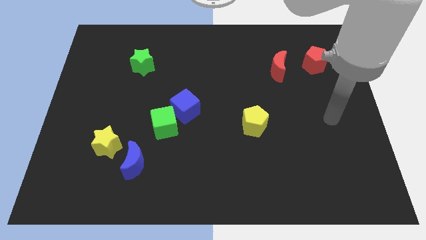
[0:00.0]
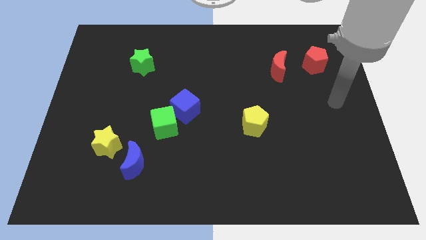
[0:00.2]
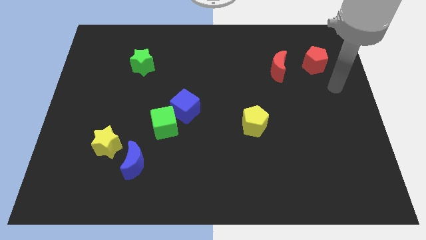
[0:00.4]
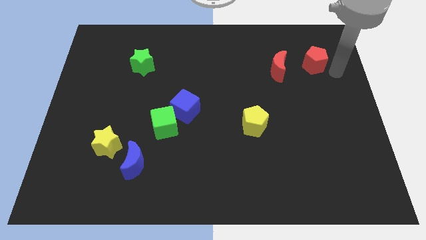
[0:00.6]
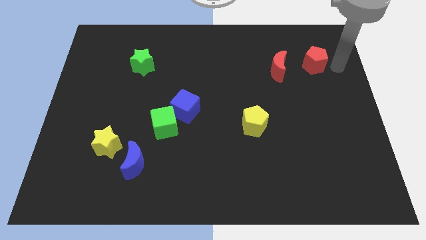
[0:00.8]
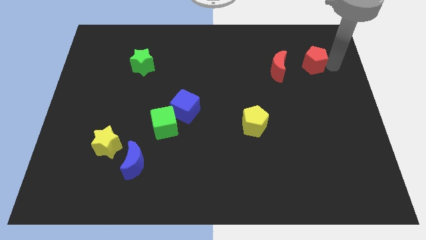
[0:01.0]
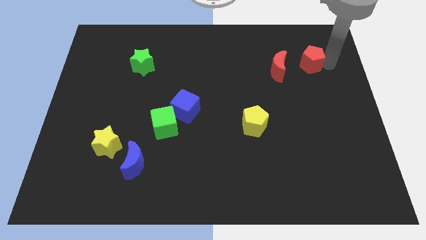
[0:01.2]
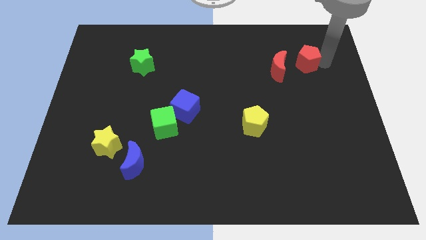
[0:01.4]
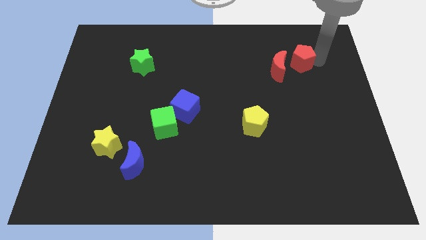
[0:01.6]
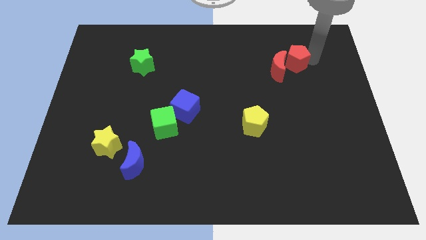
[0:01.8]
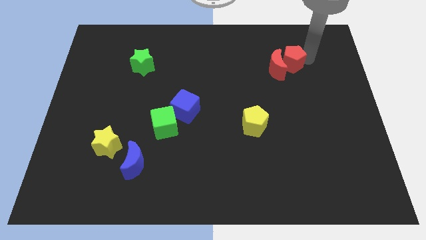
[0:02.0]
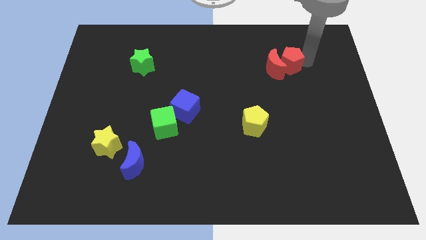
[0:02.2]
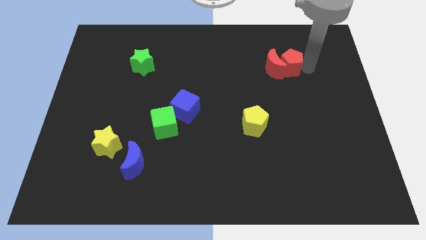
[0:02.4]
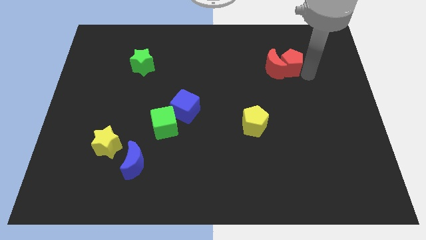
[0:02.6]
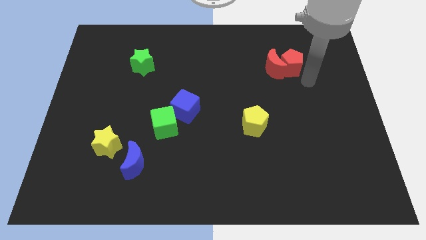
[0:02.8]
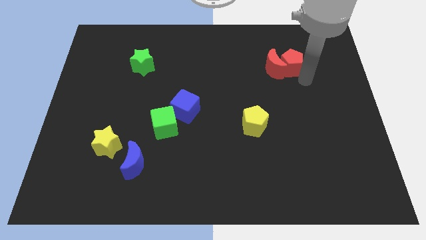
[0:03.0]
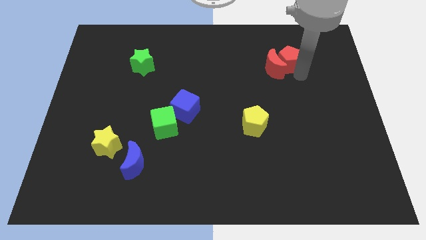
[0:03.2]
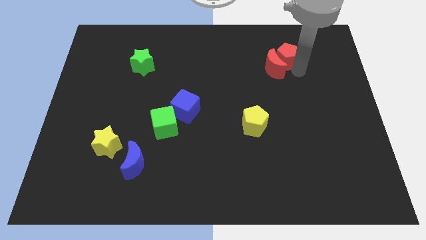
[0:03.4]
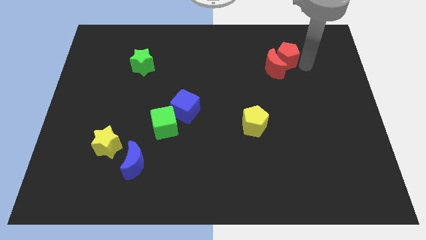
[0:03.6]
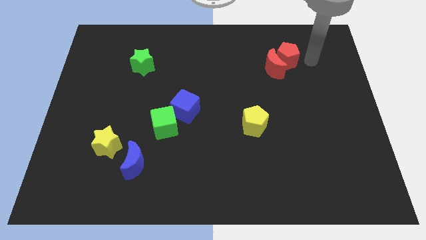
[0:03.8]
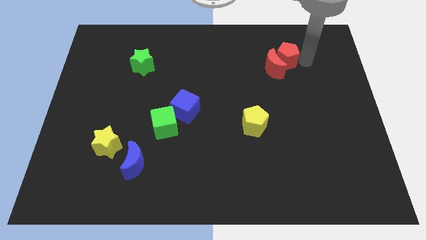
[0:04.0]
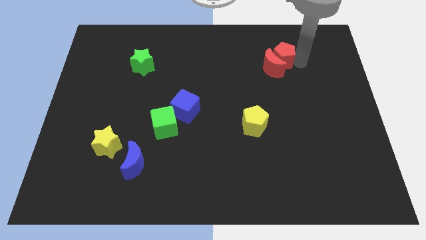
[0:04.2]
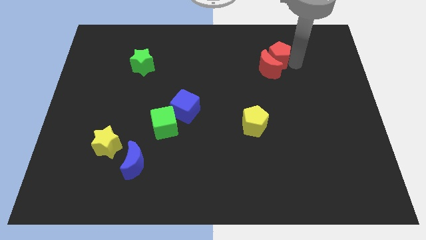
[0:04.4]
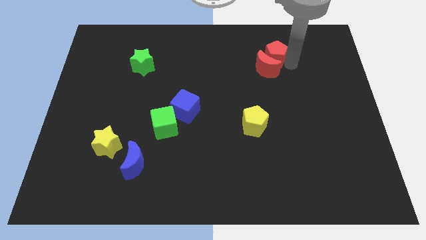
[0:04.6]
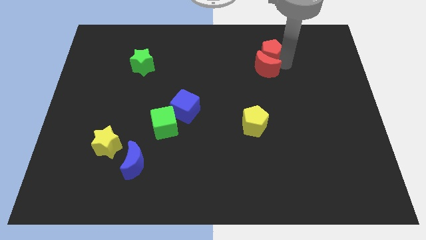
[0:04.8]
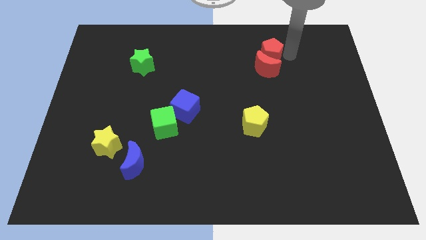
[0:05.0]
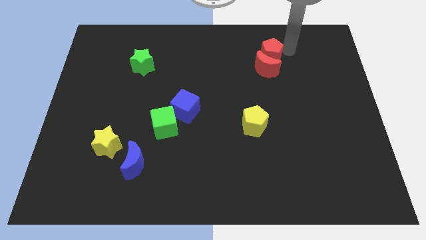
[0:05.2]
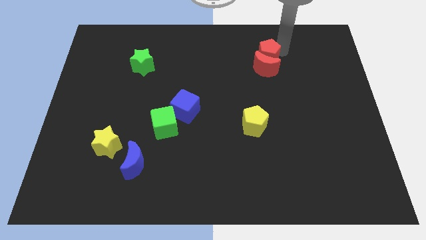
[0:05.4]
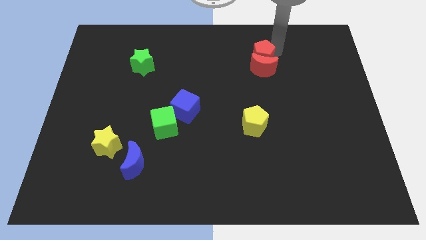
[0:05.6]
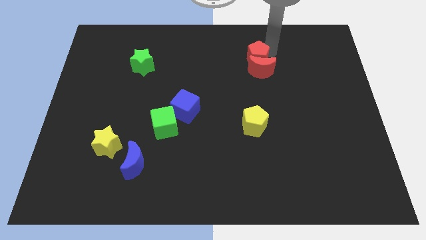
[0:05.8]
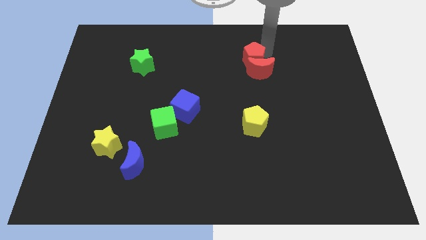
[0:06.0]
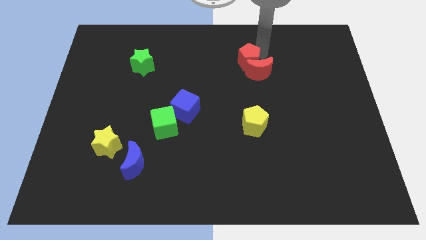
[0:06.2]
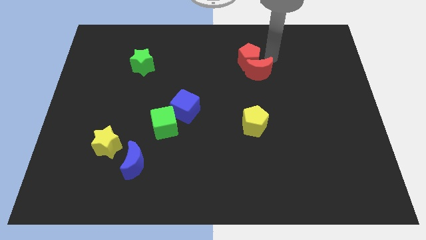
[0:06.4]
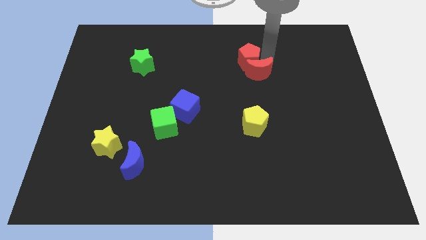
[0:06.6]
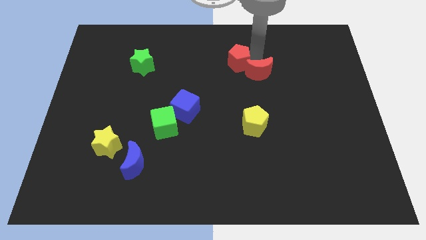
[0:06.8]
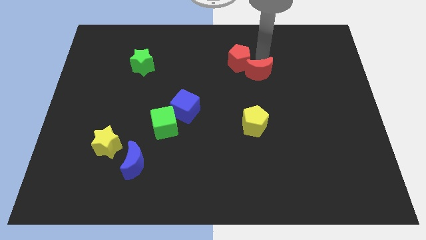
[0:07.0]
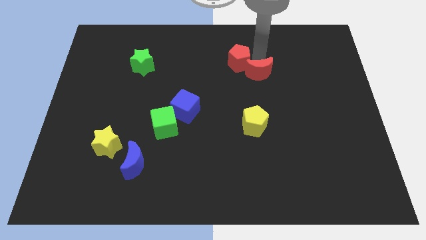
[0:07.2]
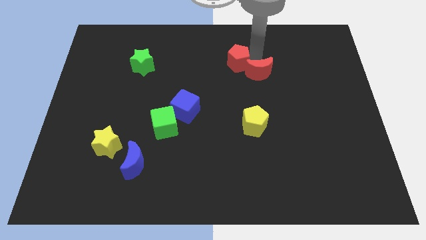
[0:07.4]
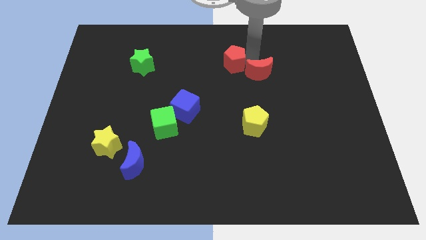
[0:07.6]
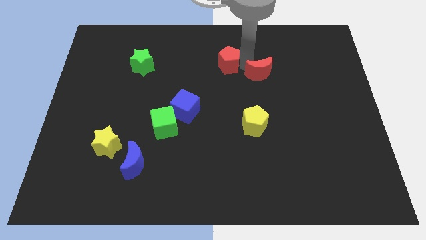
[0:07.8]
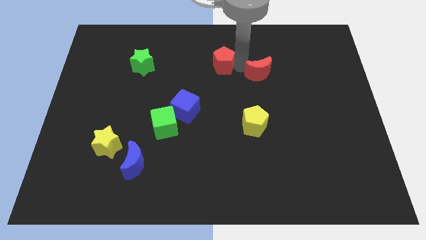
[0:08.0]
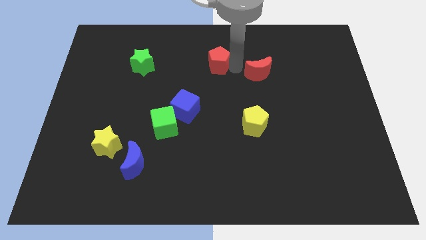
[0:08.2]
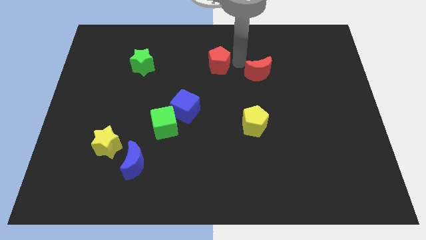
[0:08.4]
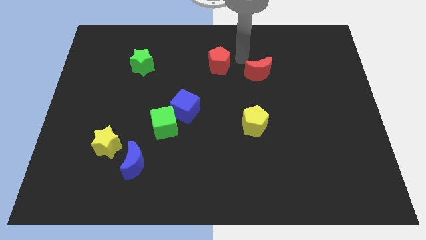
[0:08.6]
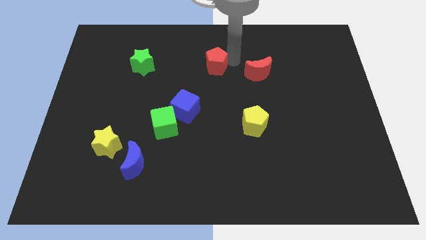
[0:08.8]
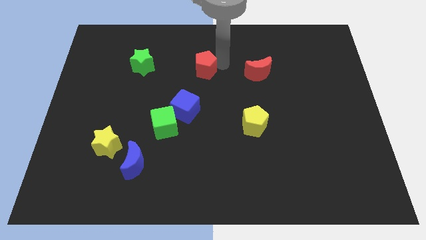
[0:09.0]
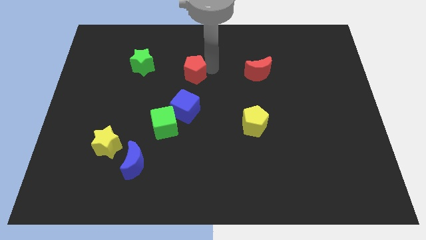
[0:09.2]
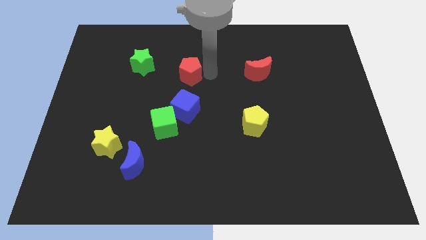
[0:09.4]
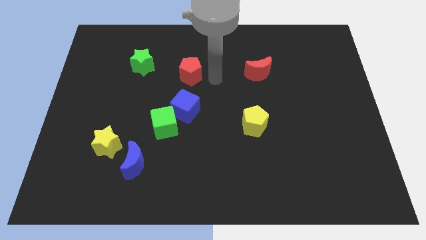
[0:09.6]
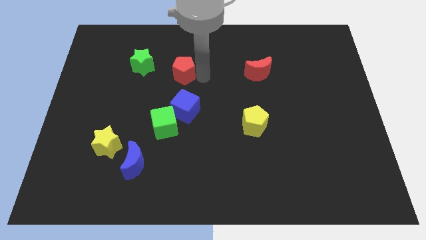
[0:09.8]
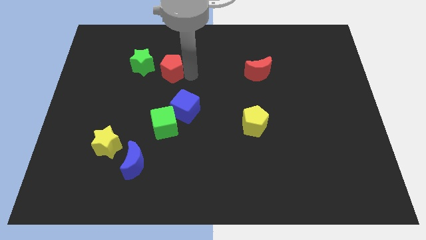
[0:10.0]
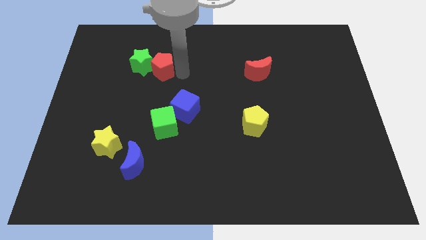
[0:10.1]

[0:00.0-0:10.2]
put the red pentagon towards the green star

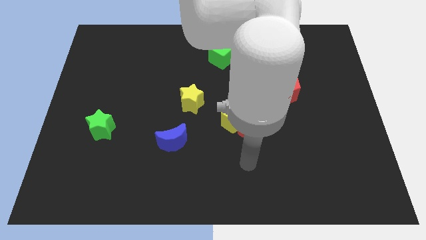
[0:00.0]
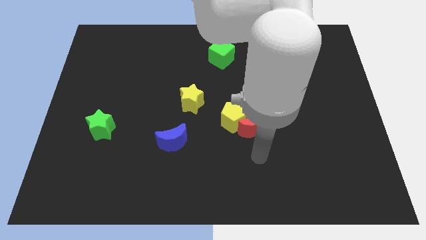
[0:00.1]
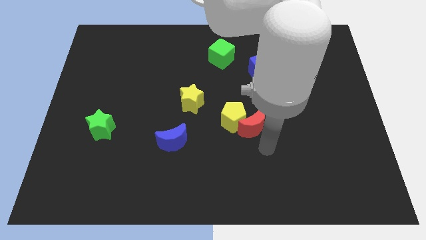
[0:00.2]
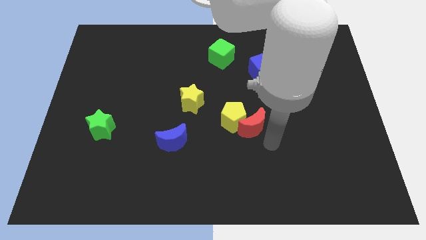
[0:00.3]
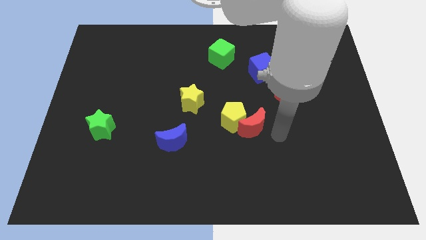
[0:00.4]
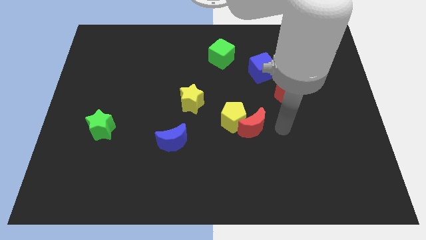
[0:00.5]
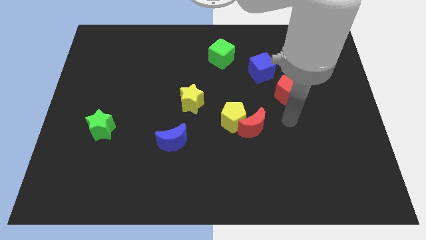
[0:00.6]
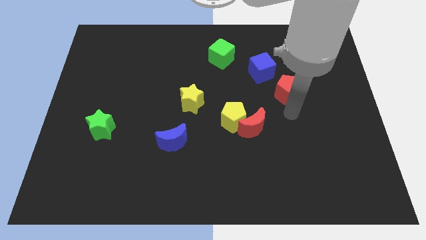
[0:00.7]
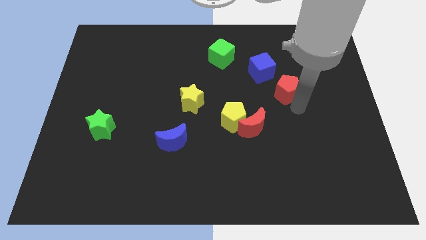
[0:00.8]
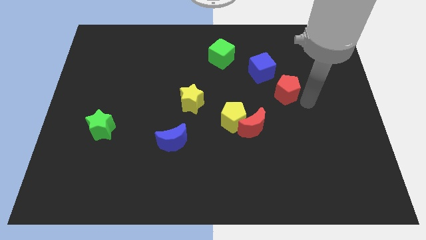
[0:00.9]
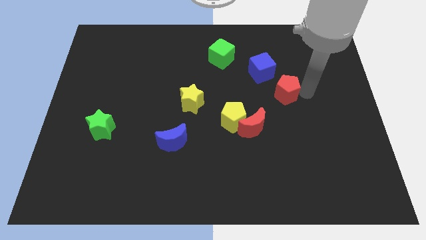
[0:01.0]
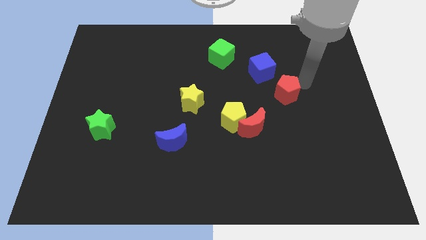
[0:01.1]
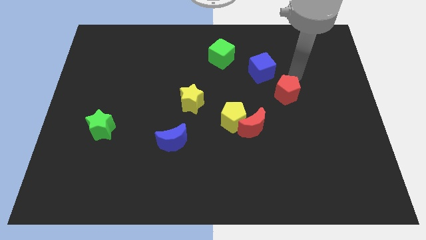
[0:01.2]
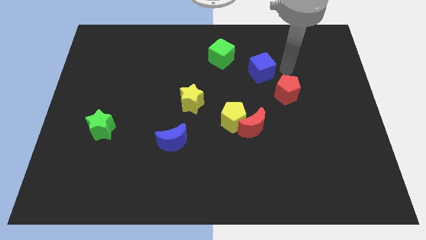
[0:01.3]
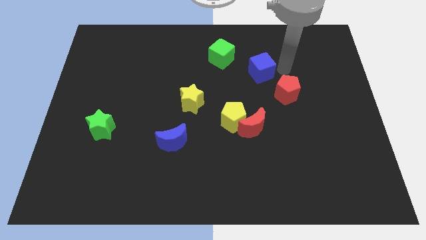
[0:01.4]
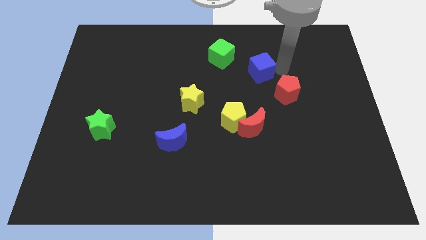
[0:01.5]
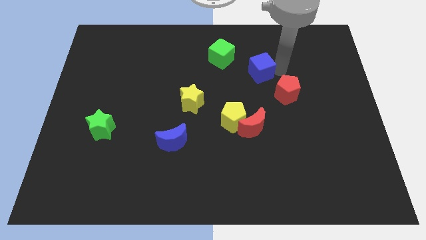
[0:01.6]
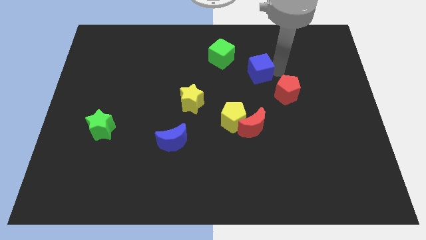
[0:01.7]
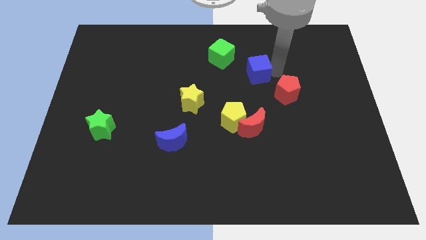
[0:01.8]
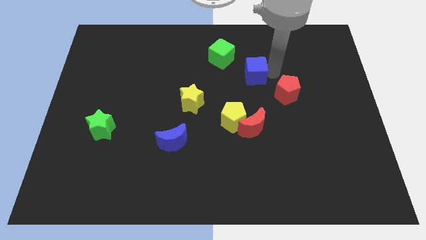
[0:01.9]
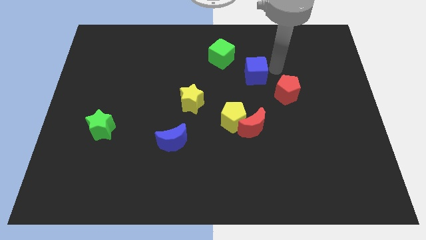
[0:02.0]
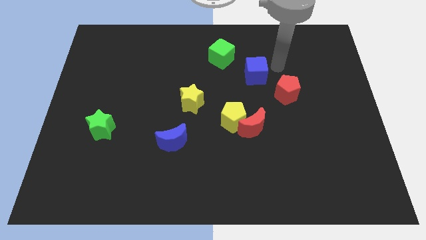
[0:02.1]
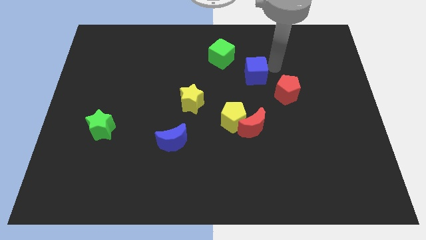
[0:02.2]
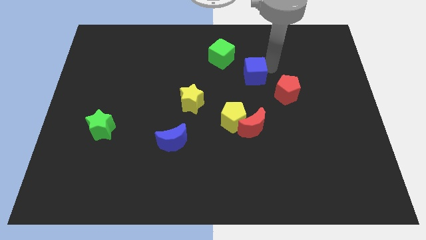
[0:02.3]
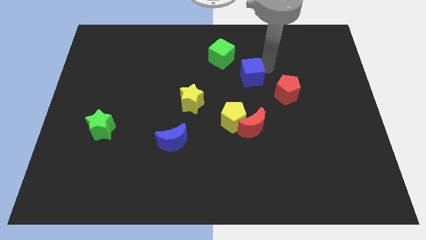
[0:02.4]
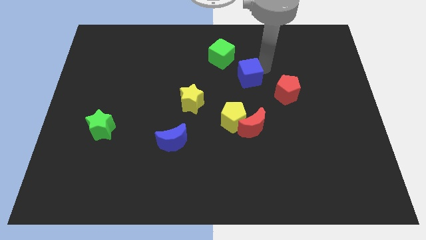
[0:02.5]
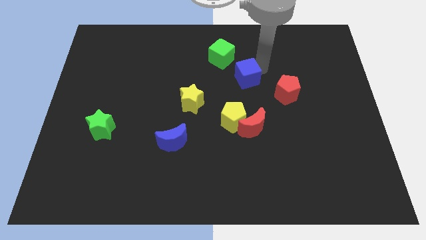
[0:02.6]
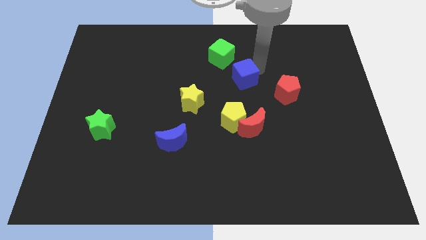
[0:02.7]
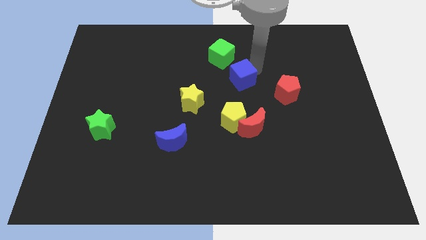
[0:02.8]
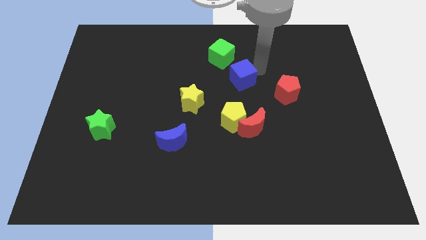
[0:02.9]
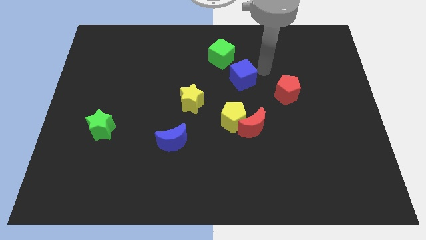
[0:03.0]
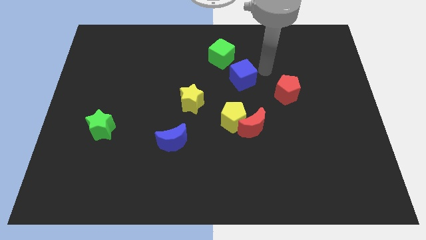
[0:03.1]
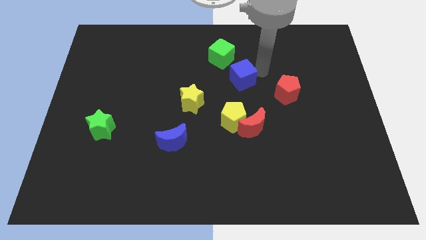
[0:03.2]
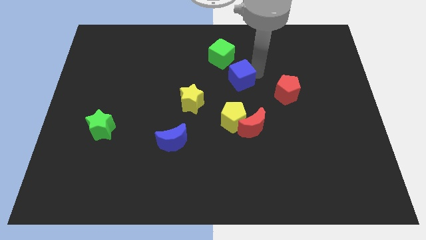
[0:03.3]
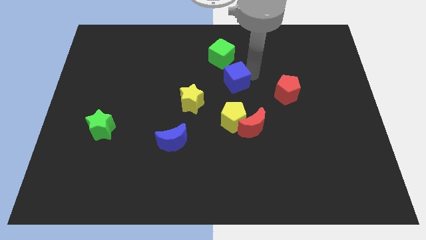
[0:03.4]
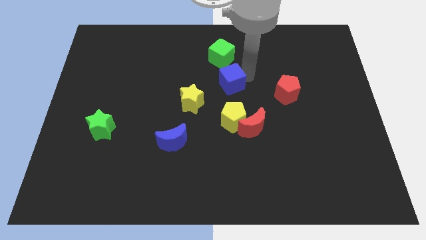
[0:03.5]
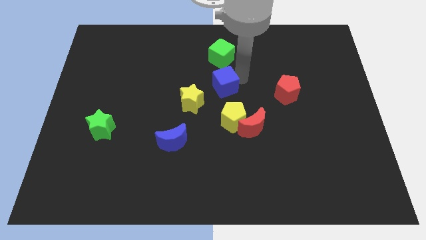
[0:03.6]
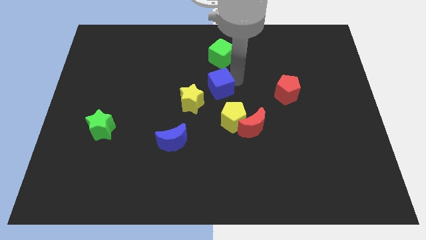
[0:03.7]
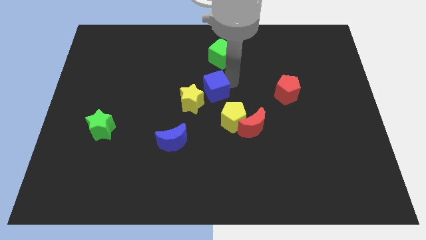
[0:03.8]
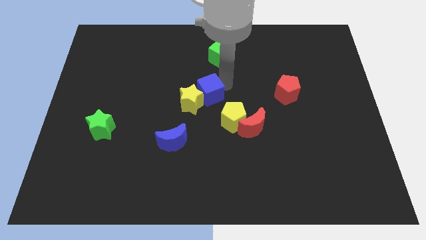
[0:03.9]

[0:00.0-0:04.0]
put the blue cube to the yellow star
